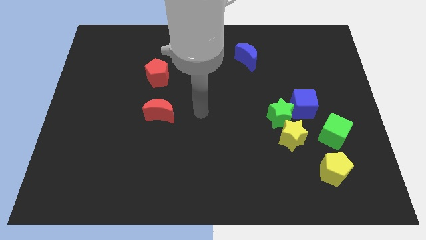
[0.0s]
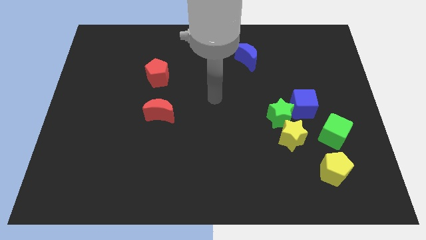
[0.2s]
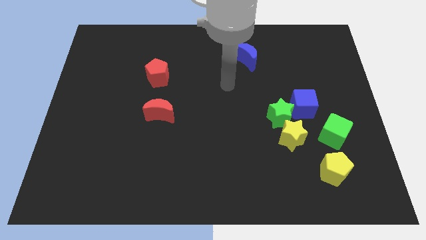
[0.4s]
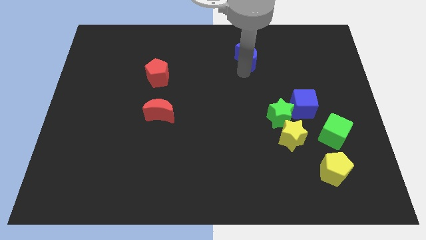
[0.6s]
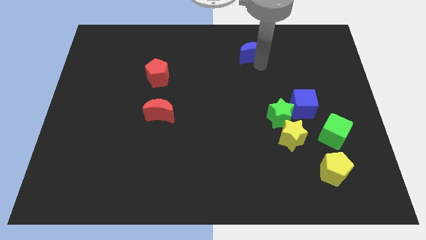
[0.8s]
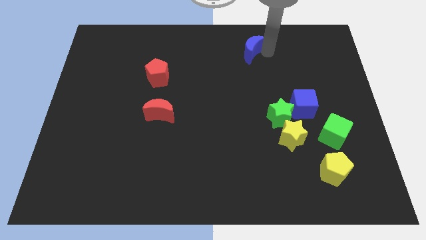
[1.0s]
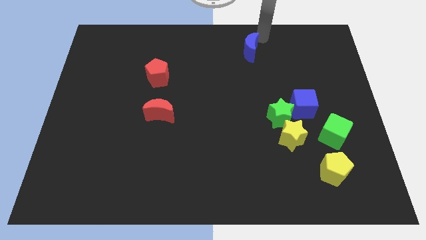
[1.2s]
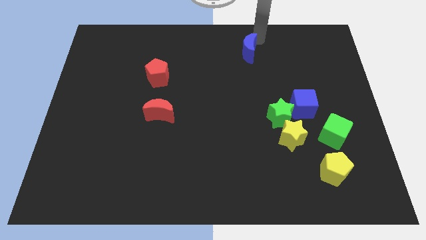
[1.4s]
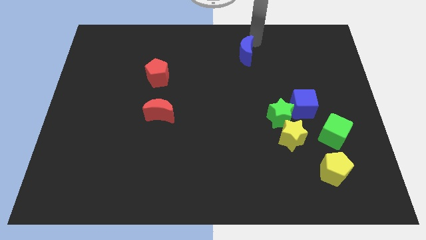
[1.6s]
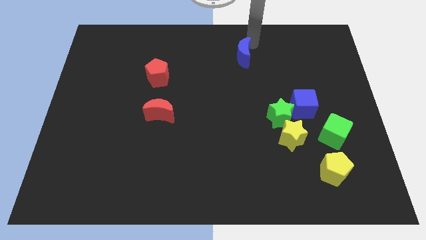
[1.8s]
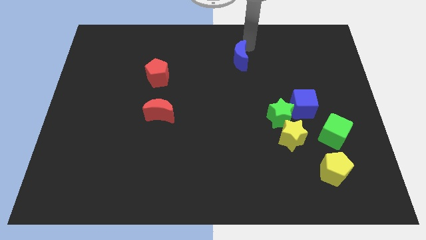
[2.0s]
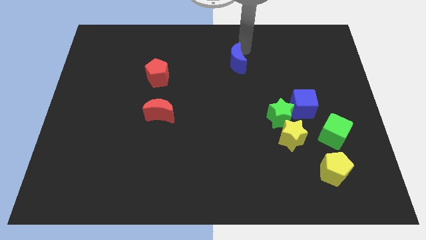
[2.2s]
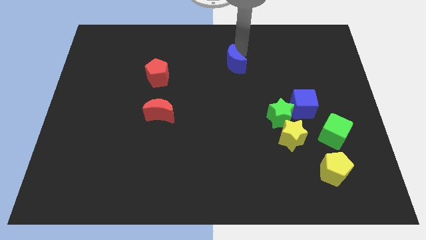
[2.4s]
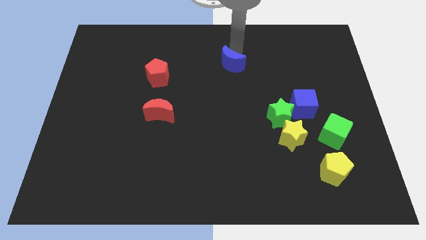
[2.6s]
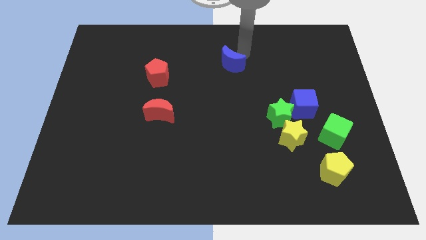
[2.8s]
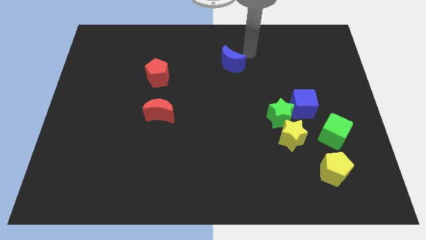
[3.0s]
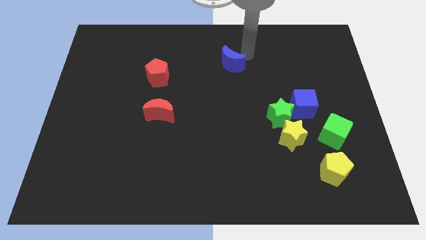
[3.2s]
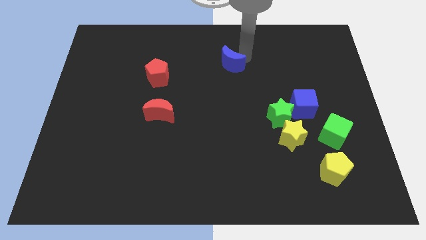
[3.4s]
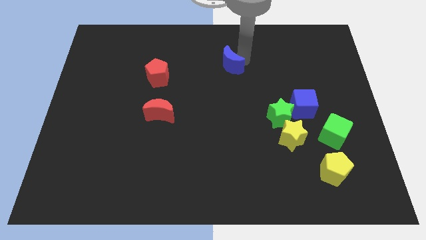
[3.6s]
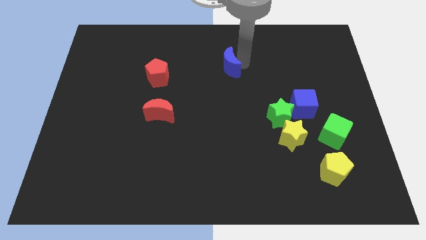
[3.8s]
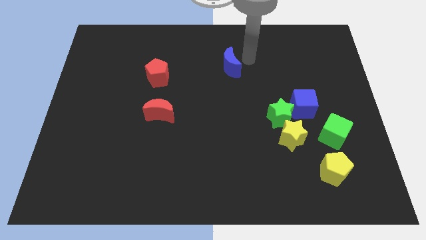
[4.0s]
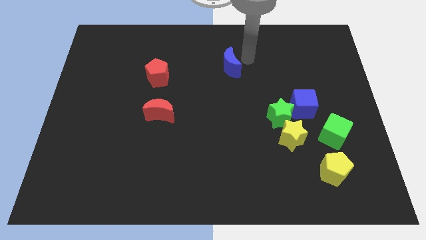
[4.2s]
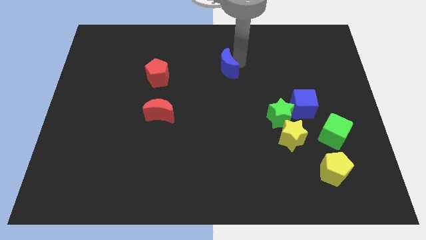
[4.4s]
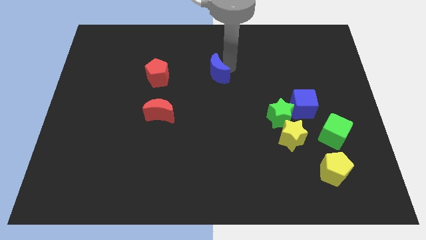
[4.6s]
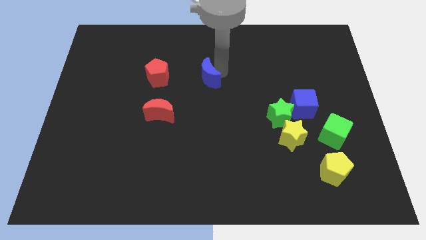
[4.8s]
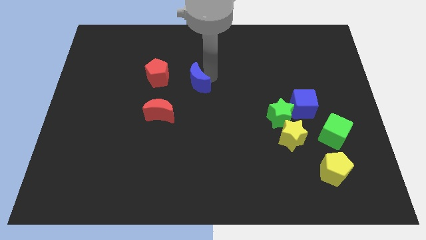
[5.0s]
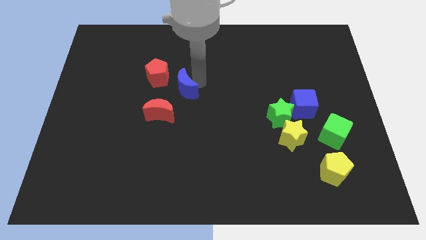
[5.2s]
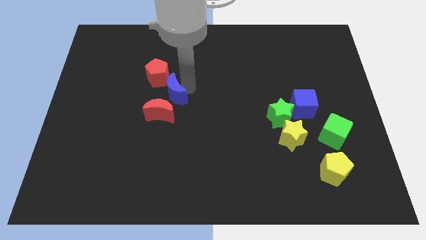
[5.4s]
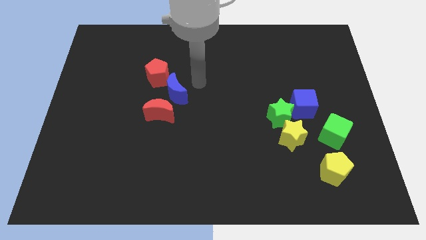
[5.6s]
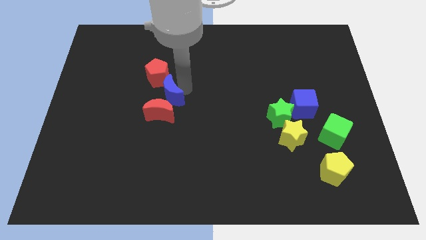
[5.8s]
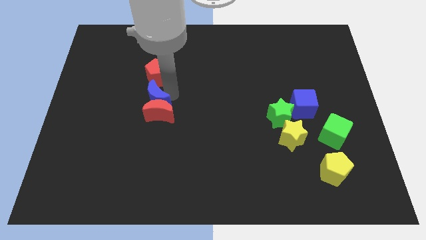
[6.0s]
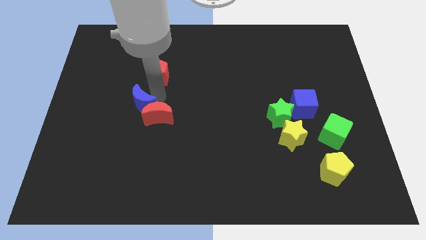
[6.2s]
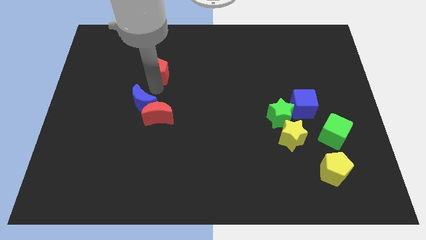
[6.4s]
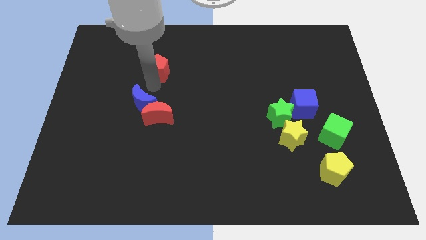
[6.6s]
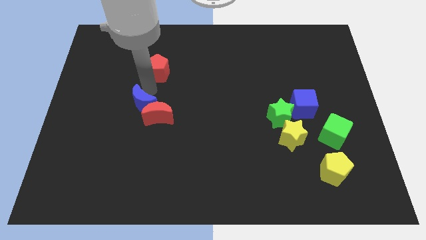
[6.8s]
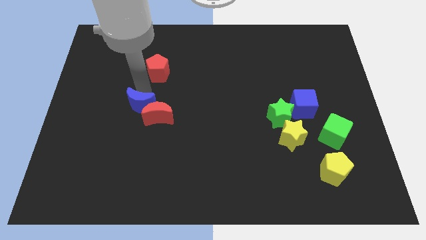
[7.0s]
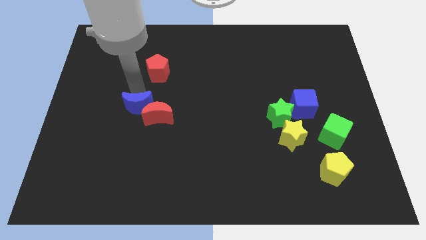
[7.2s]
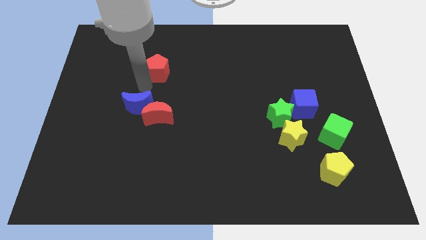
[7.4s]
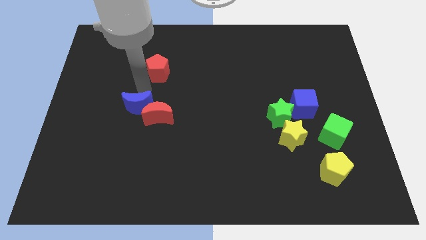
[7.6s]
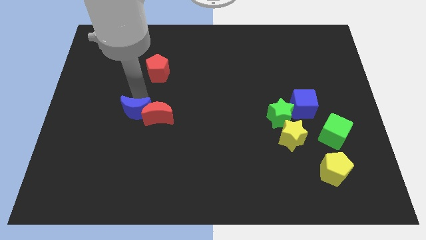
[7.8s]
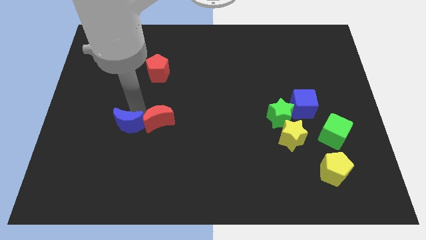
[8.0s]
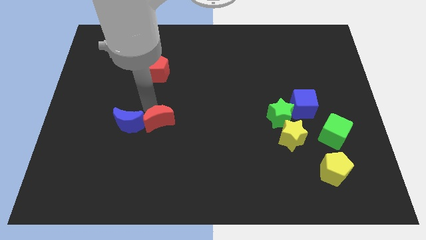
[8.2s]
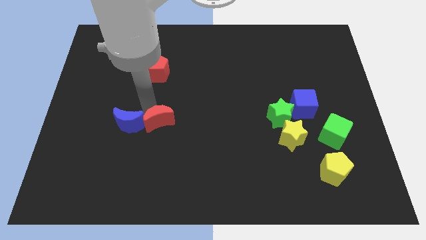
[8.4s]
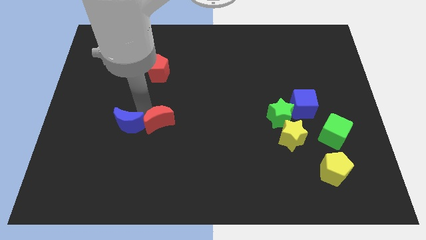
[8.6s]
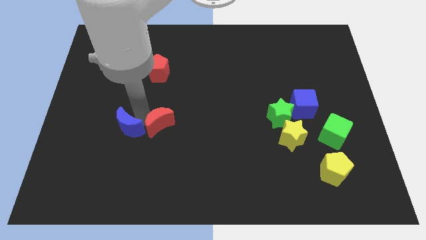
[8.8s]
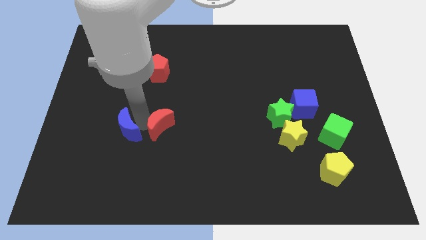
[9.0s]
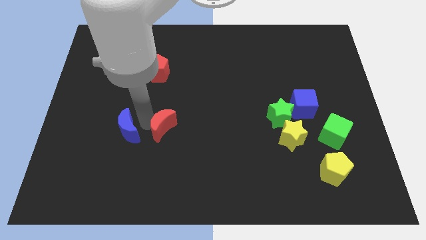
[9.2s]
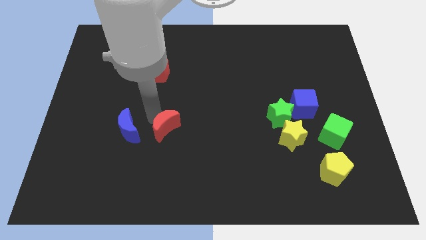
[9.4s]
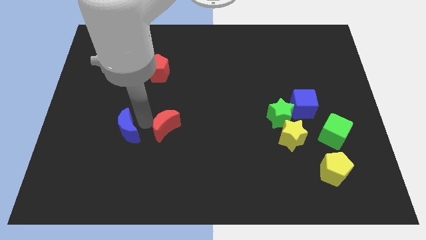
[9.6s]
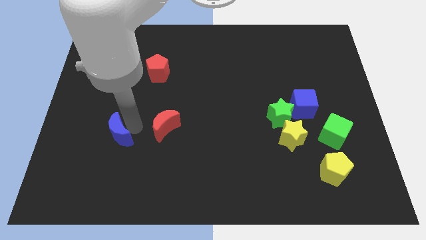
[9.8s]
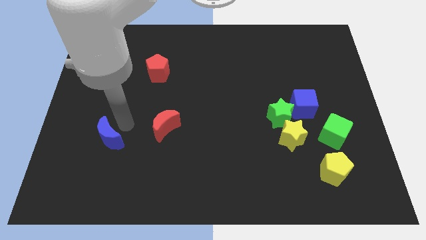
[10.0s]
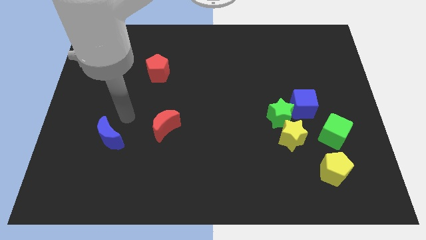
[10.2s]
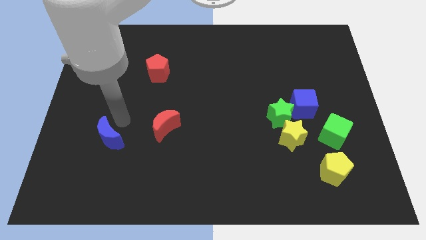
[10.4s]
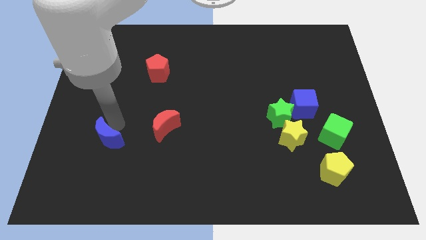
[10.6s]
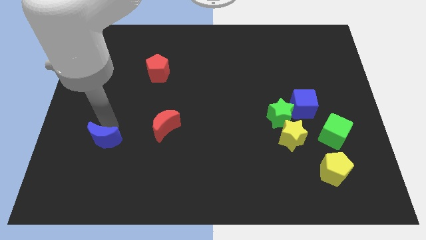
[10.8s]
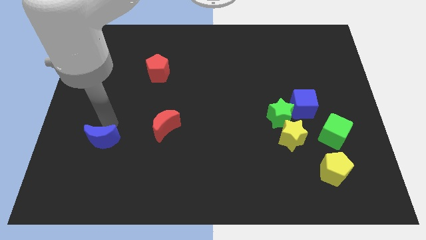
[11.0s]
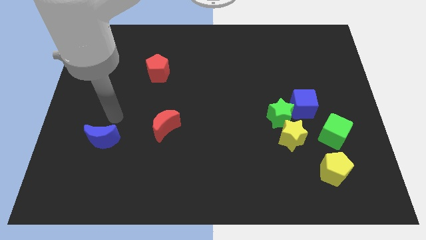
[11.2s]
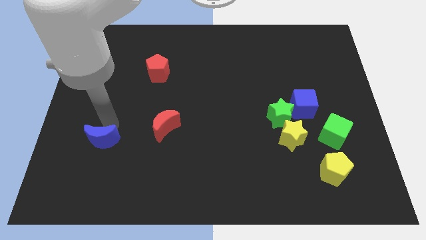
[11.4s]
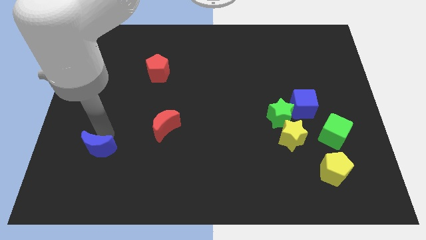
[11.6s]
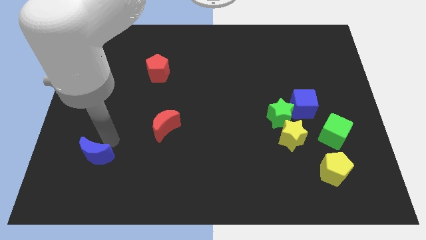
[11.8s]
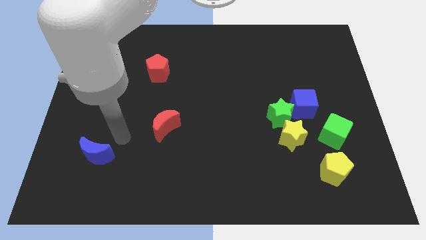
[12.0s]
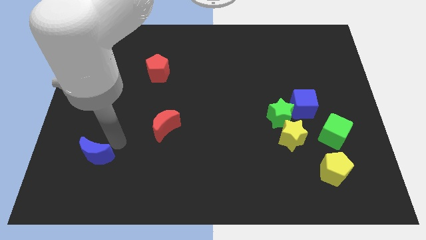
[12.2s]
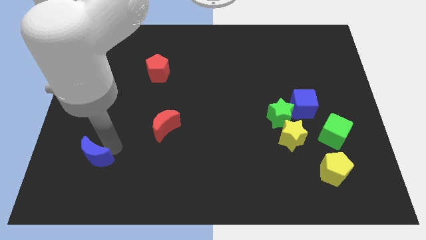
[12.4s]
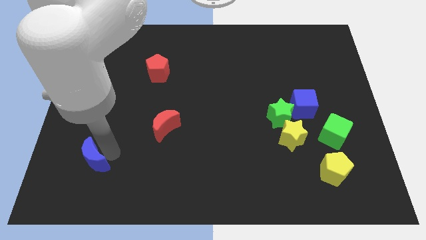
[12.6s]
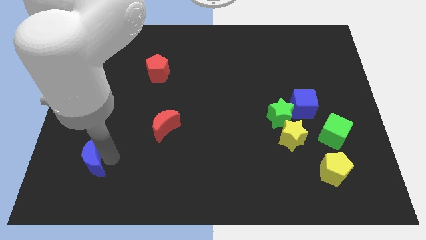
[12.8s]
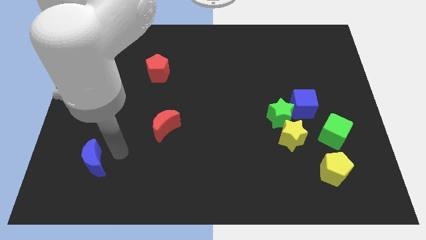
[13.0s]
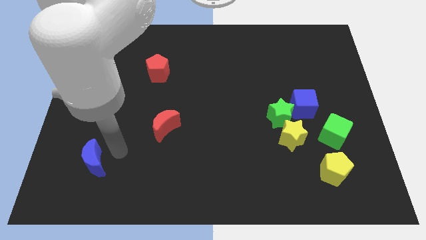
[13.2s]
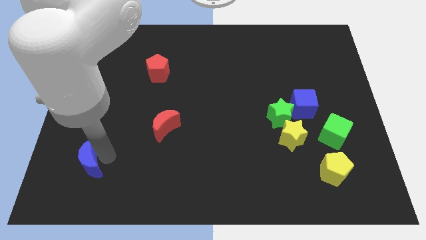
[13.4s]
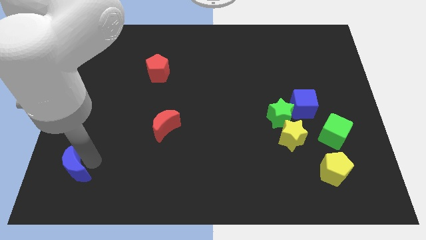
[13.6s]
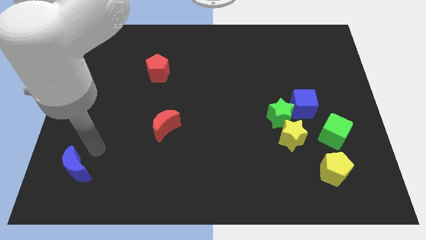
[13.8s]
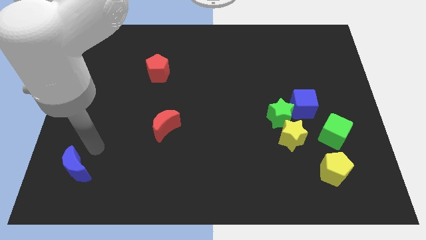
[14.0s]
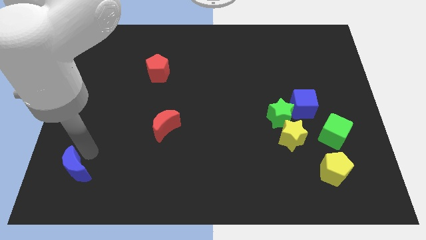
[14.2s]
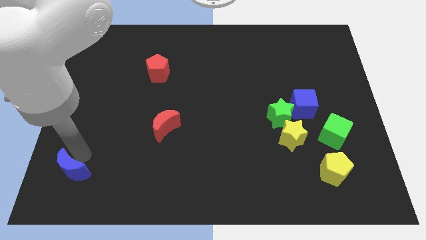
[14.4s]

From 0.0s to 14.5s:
put the blue moon to the bottom left corner
